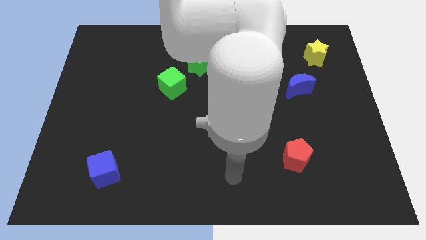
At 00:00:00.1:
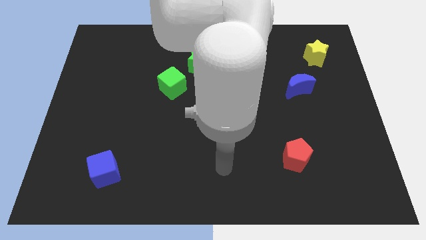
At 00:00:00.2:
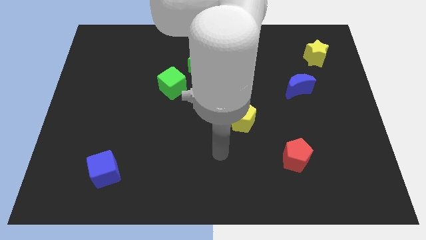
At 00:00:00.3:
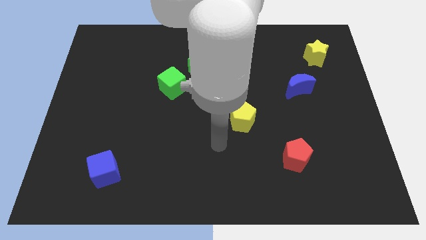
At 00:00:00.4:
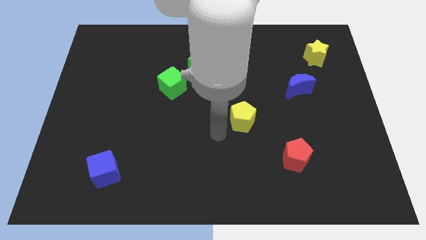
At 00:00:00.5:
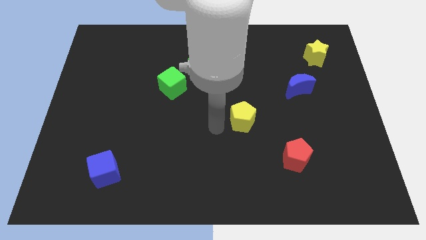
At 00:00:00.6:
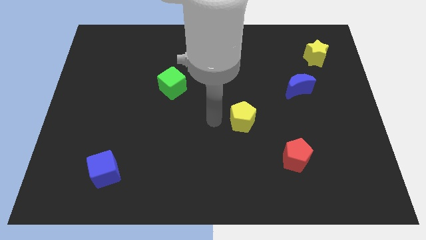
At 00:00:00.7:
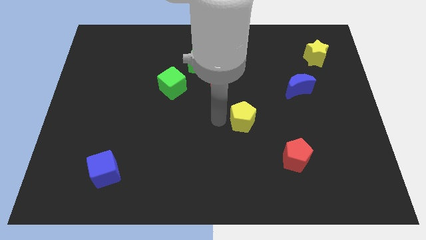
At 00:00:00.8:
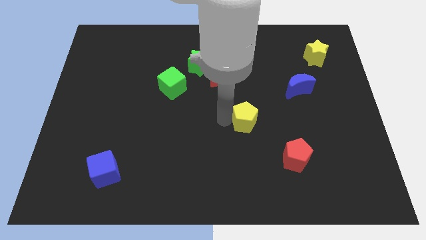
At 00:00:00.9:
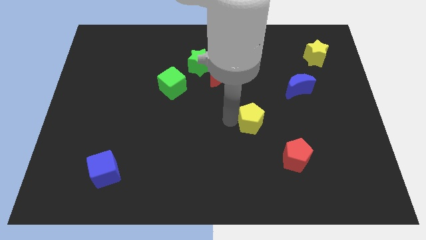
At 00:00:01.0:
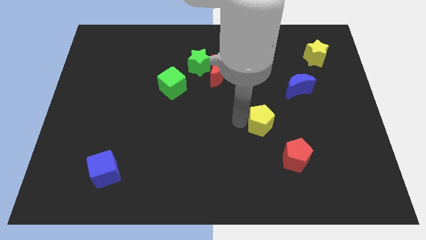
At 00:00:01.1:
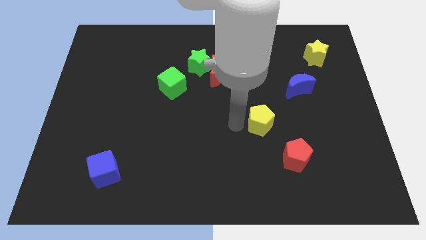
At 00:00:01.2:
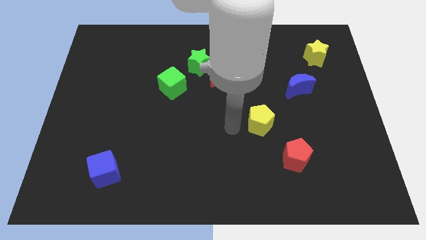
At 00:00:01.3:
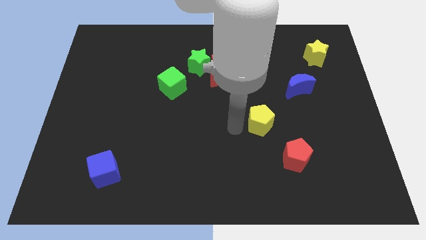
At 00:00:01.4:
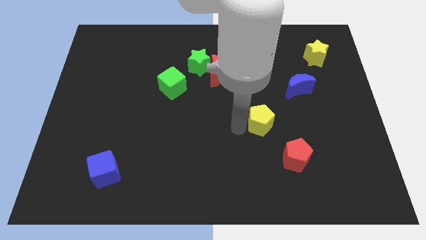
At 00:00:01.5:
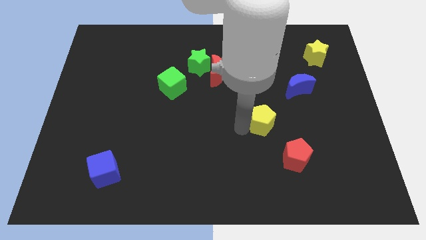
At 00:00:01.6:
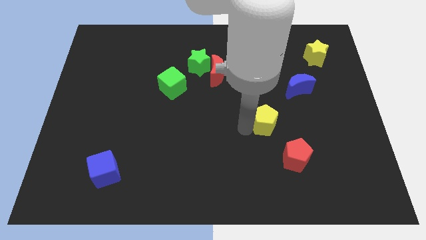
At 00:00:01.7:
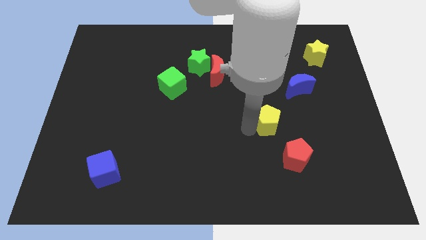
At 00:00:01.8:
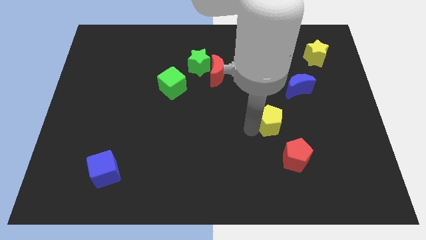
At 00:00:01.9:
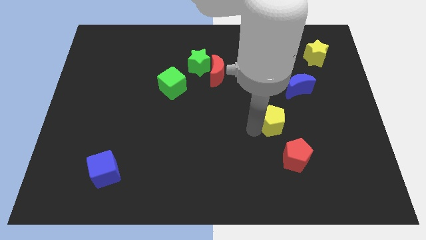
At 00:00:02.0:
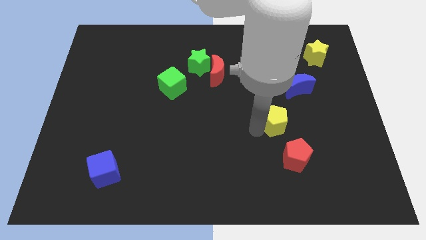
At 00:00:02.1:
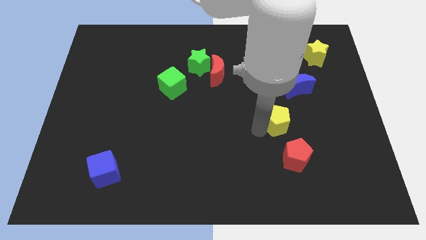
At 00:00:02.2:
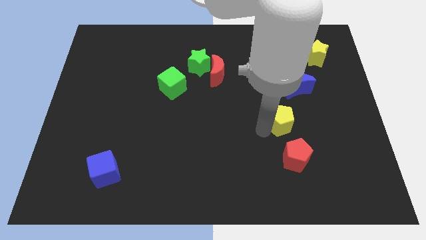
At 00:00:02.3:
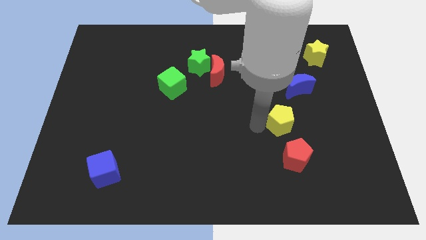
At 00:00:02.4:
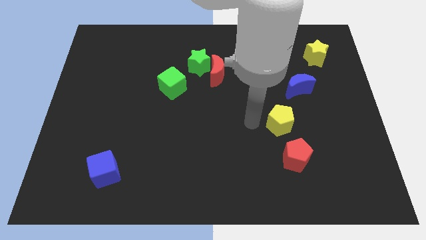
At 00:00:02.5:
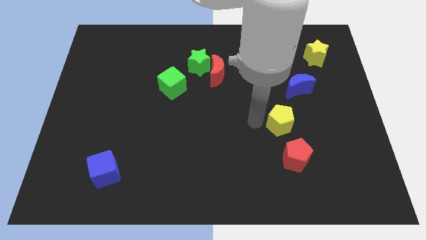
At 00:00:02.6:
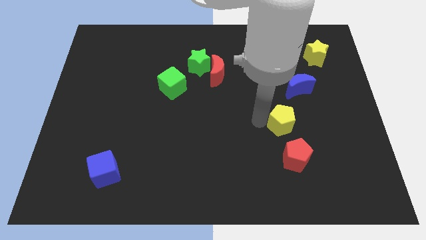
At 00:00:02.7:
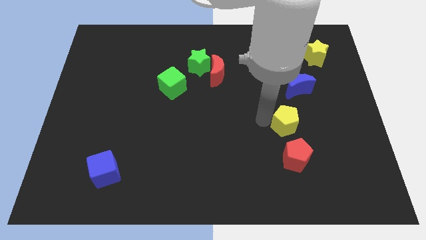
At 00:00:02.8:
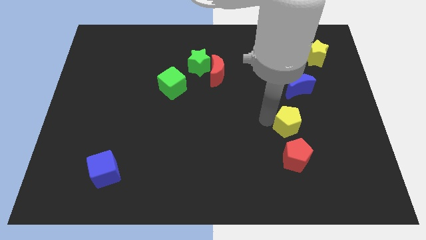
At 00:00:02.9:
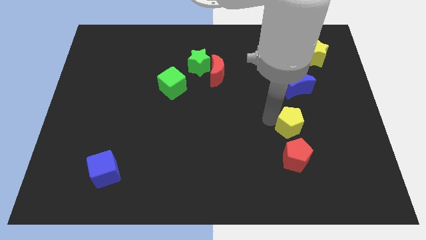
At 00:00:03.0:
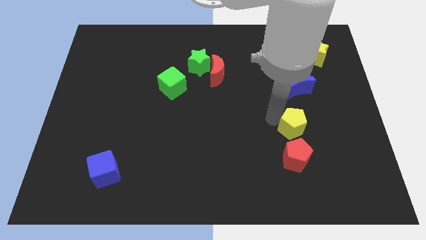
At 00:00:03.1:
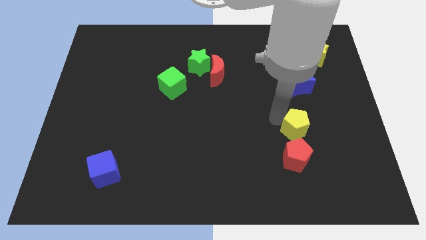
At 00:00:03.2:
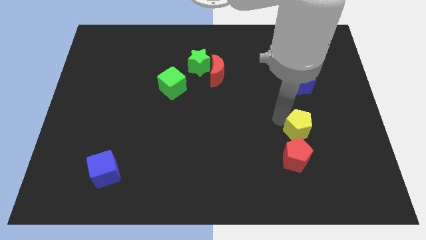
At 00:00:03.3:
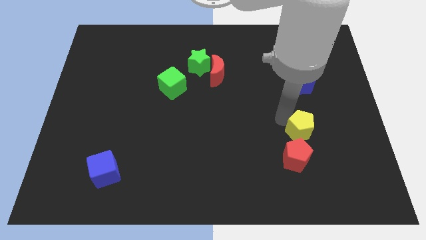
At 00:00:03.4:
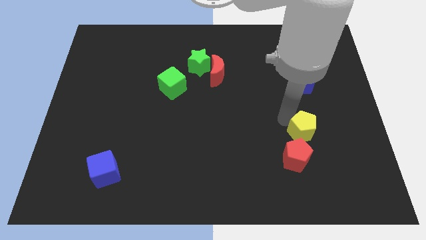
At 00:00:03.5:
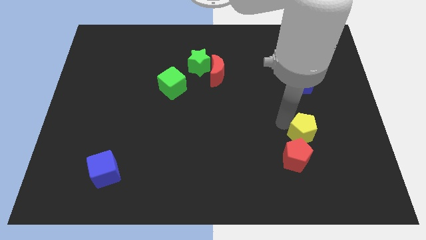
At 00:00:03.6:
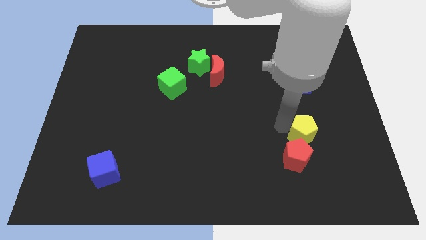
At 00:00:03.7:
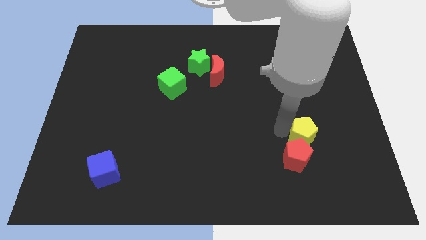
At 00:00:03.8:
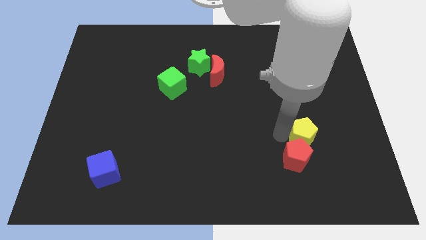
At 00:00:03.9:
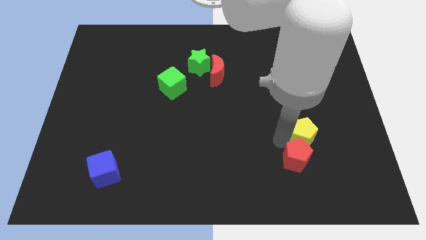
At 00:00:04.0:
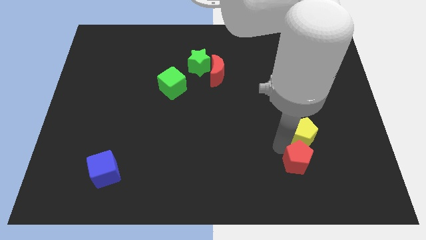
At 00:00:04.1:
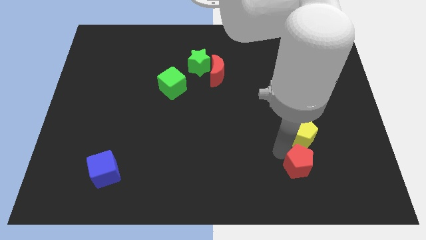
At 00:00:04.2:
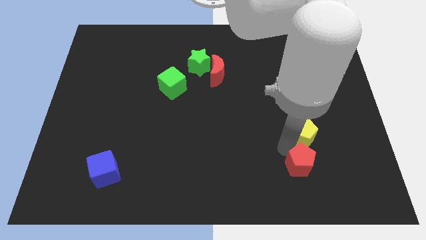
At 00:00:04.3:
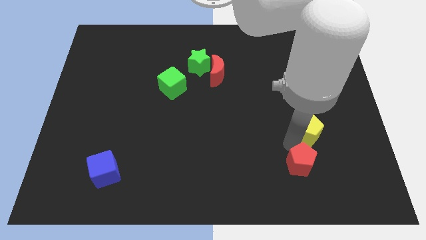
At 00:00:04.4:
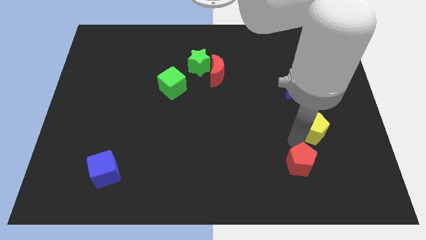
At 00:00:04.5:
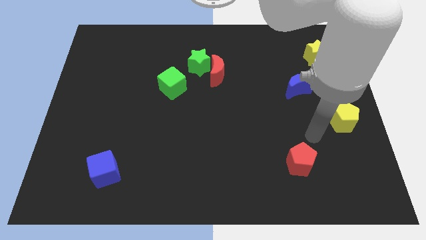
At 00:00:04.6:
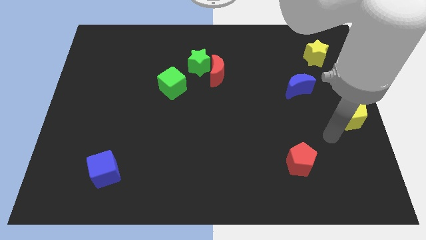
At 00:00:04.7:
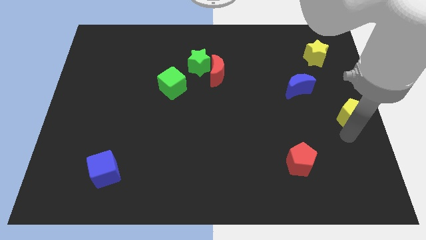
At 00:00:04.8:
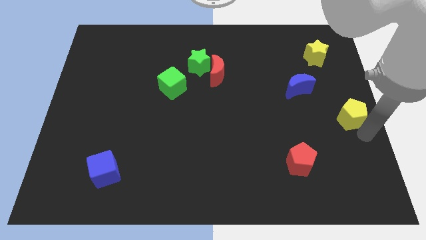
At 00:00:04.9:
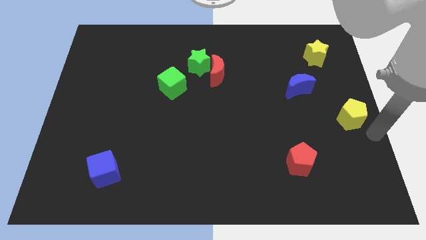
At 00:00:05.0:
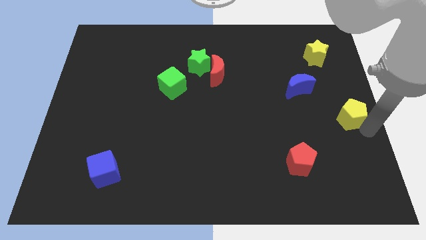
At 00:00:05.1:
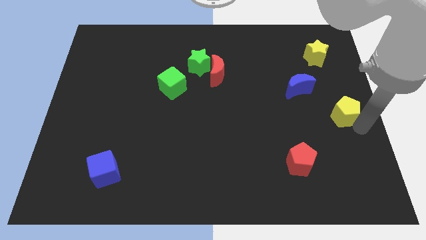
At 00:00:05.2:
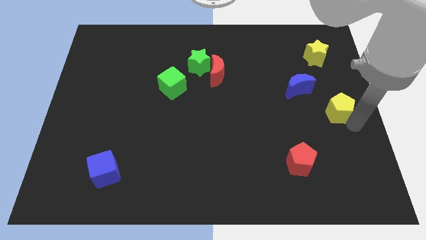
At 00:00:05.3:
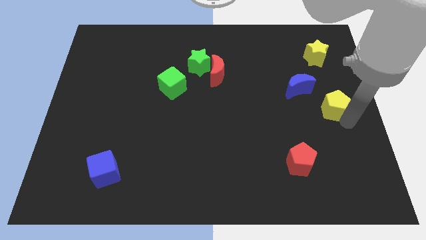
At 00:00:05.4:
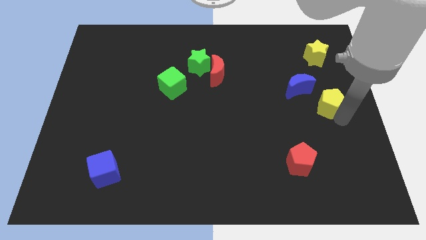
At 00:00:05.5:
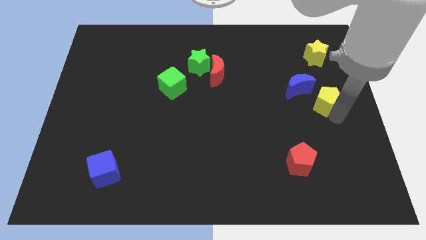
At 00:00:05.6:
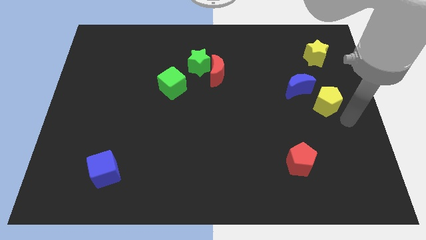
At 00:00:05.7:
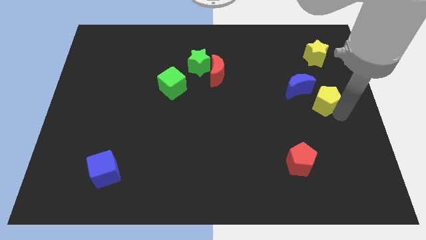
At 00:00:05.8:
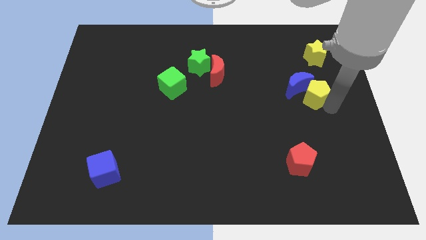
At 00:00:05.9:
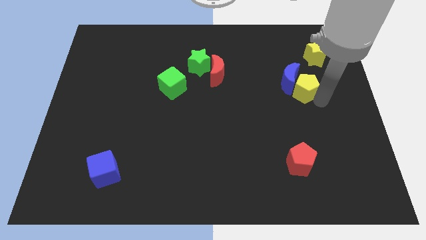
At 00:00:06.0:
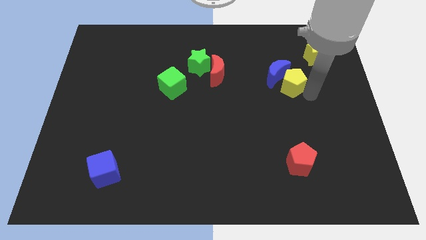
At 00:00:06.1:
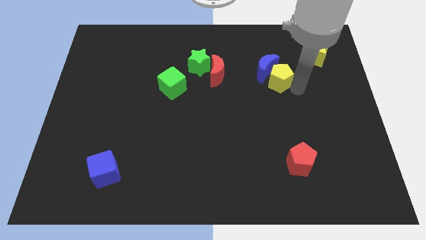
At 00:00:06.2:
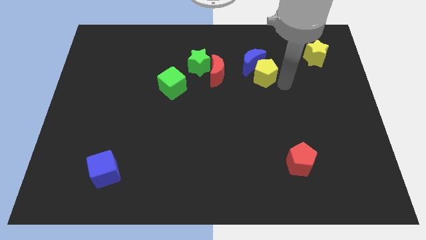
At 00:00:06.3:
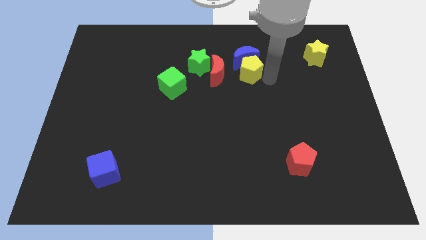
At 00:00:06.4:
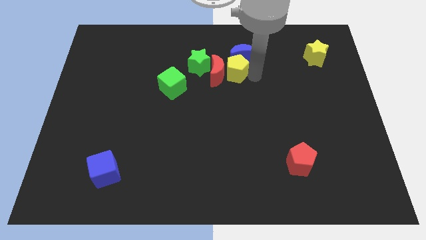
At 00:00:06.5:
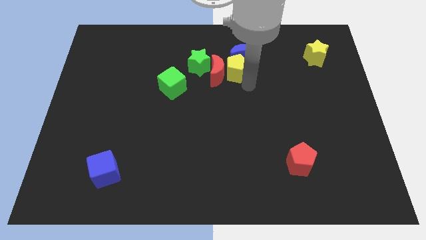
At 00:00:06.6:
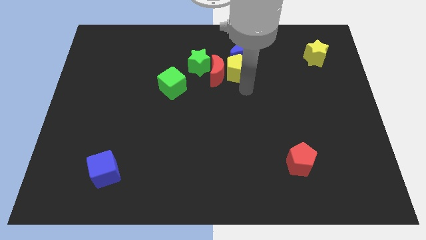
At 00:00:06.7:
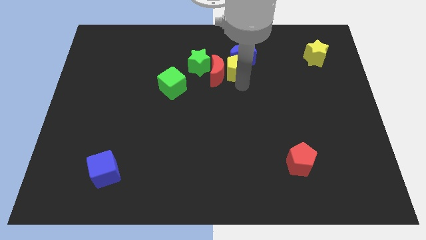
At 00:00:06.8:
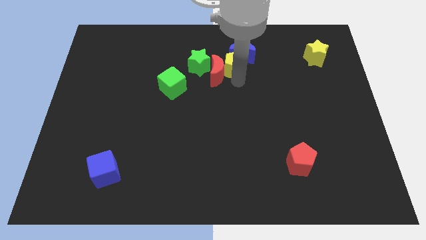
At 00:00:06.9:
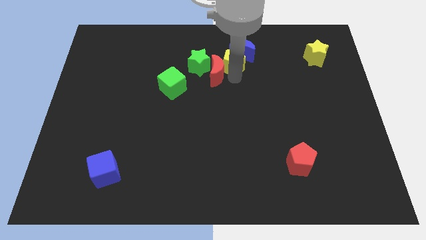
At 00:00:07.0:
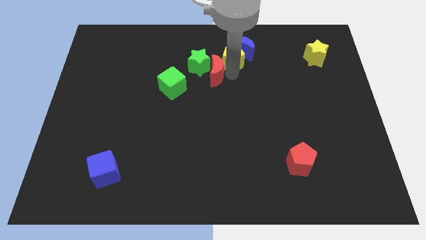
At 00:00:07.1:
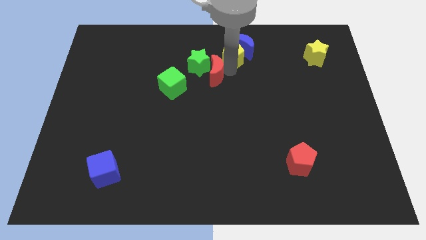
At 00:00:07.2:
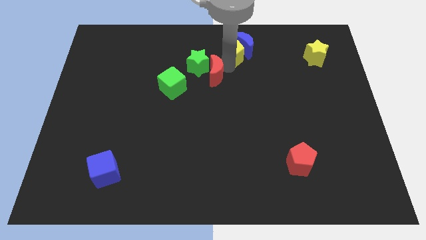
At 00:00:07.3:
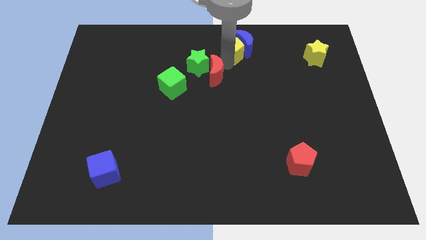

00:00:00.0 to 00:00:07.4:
move the yellow pentagon to the top
